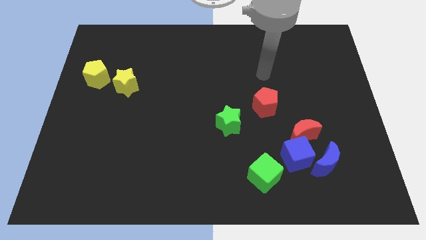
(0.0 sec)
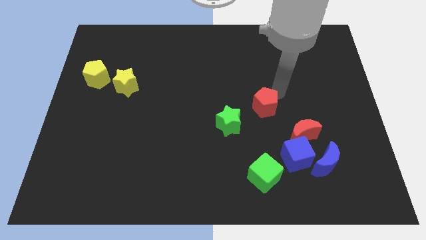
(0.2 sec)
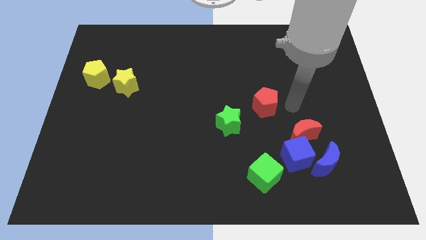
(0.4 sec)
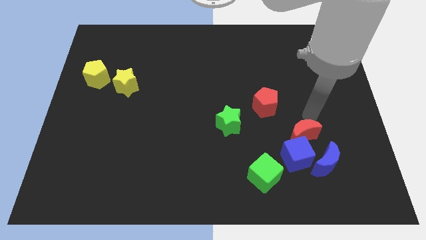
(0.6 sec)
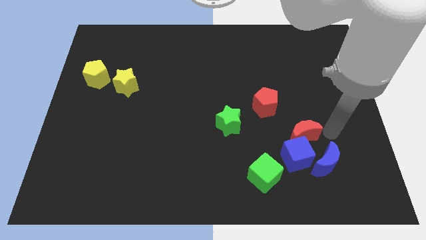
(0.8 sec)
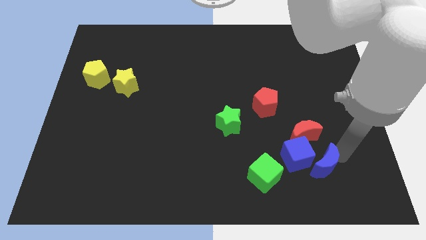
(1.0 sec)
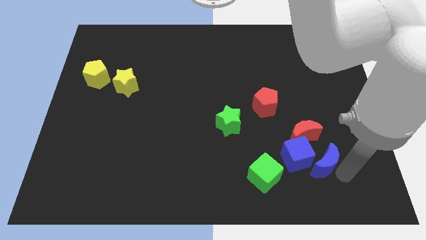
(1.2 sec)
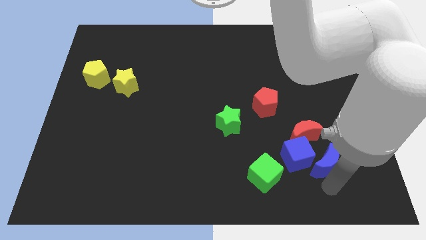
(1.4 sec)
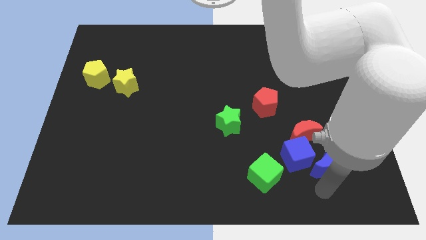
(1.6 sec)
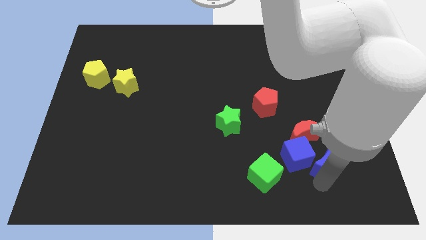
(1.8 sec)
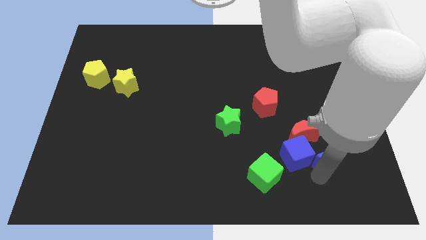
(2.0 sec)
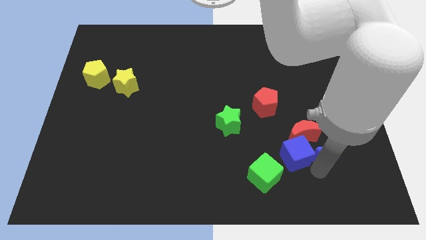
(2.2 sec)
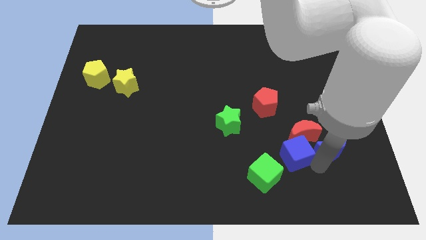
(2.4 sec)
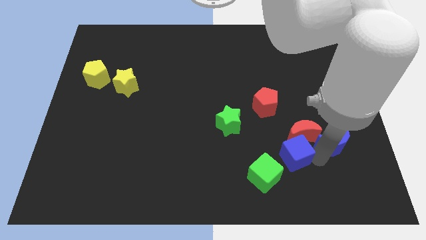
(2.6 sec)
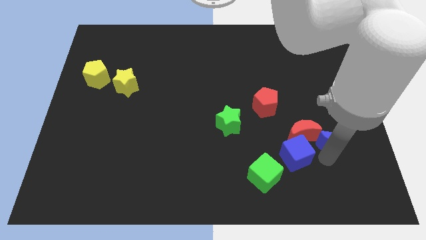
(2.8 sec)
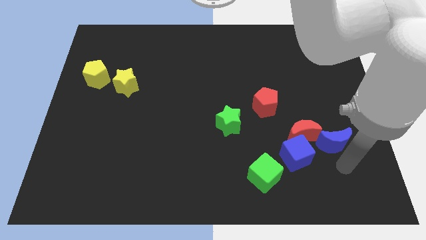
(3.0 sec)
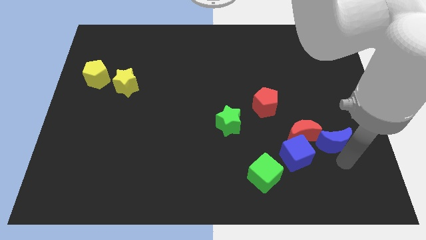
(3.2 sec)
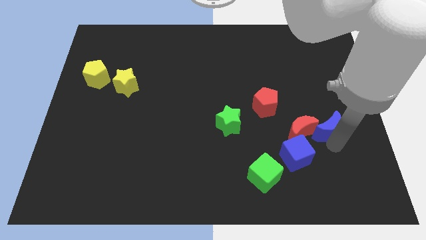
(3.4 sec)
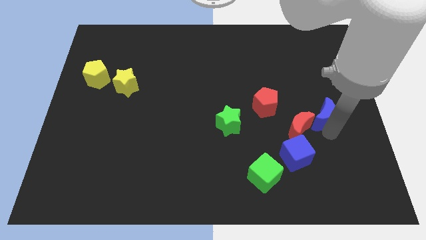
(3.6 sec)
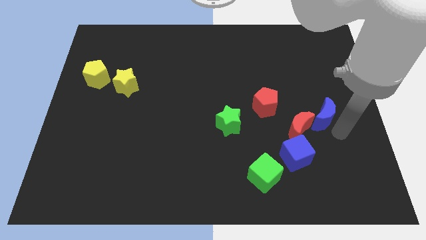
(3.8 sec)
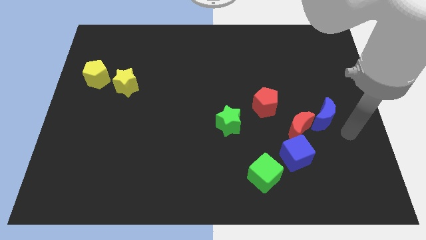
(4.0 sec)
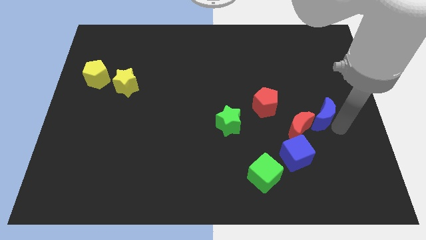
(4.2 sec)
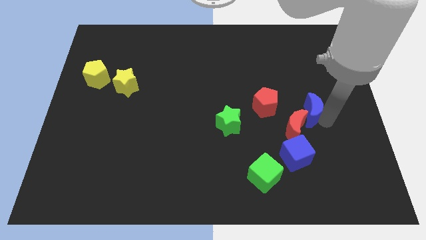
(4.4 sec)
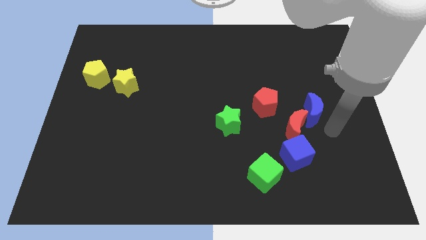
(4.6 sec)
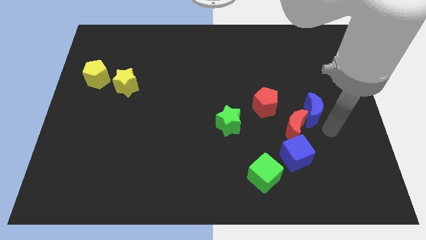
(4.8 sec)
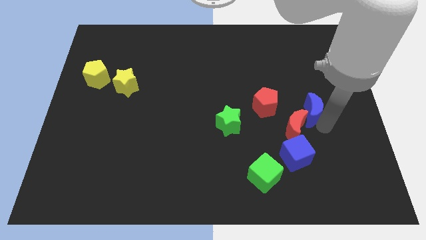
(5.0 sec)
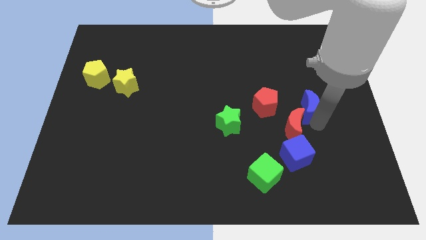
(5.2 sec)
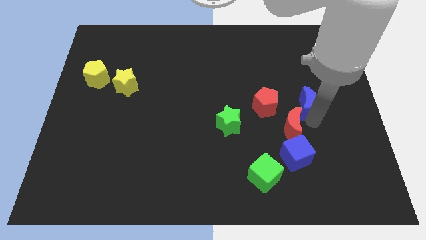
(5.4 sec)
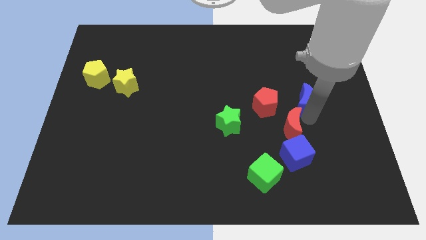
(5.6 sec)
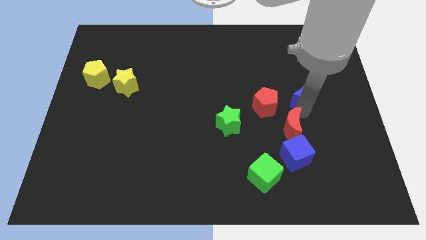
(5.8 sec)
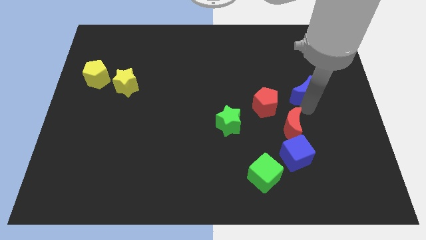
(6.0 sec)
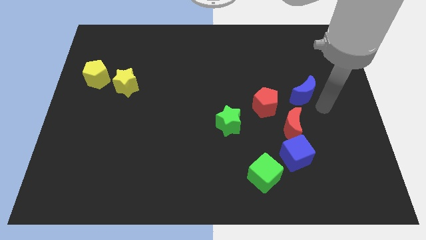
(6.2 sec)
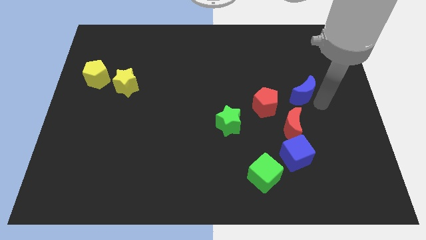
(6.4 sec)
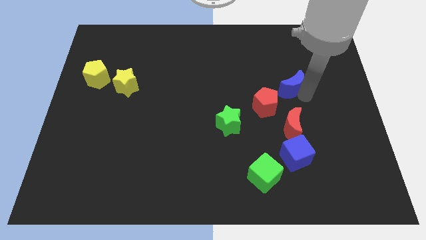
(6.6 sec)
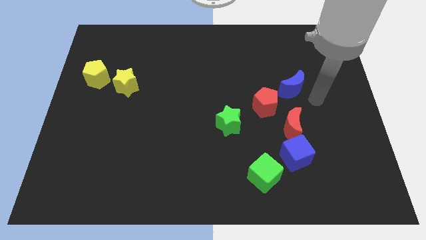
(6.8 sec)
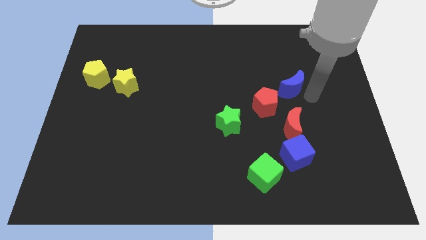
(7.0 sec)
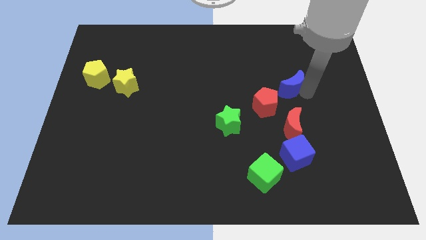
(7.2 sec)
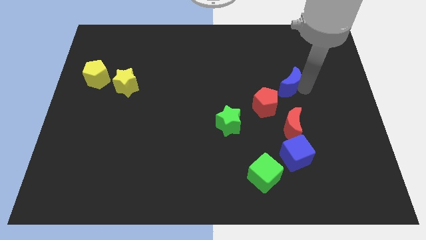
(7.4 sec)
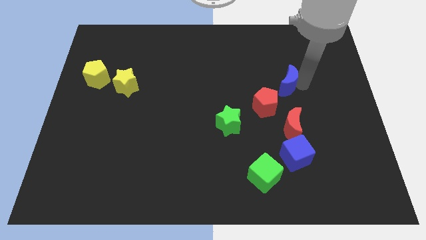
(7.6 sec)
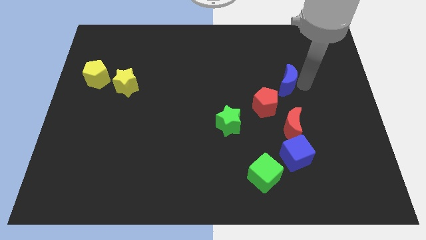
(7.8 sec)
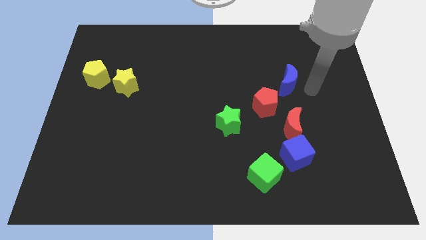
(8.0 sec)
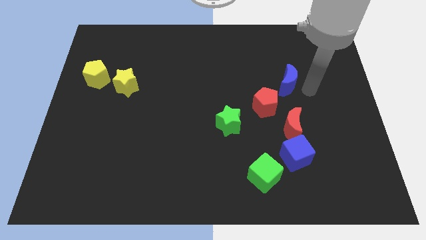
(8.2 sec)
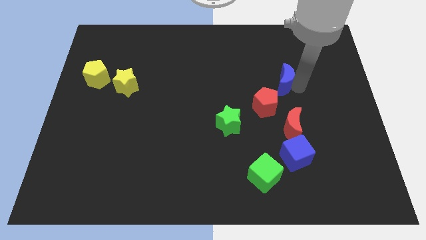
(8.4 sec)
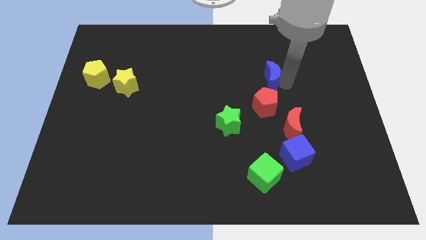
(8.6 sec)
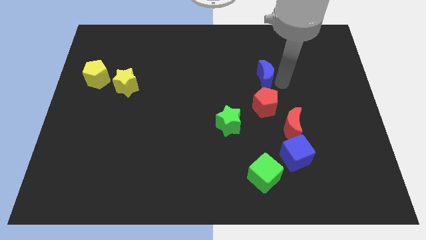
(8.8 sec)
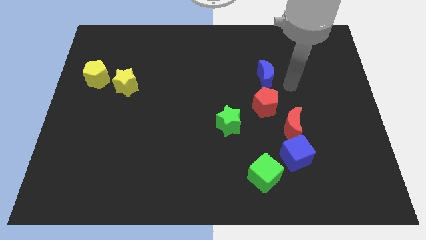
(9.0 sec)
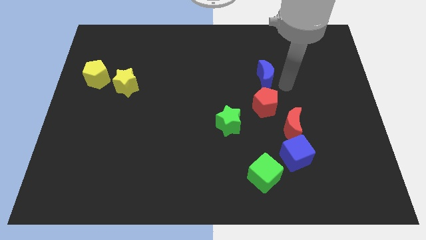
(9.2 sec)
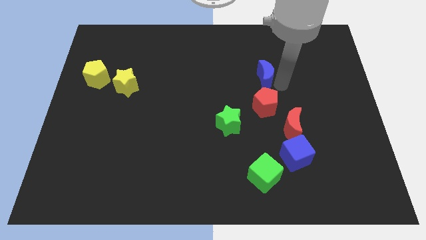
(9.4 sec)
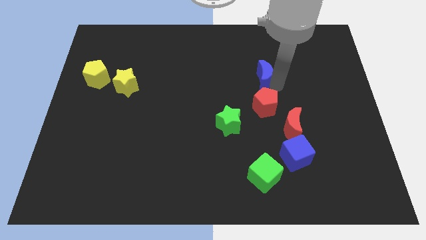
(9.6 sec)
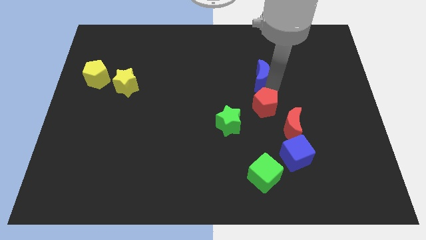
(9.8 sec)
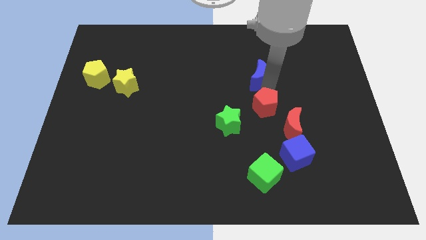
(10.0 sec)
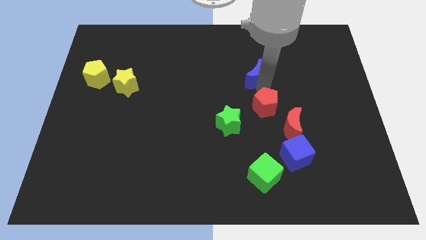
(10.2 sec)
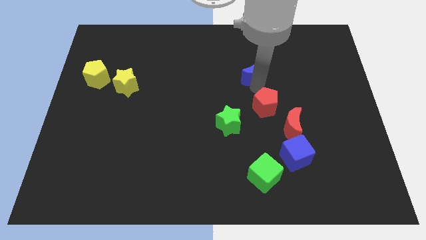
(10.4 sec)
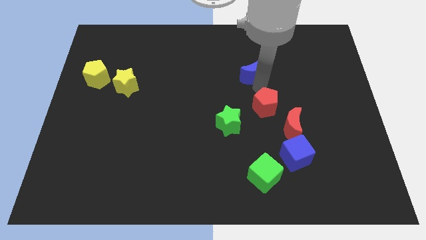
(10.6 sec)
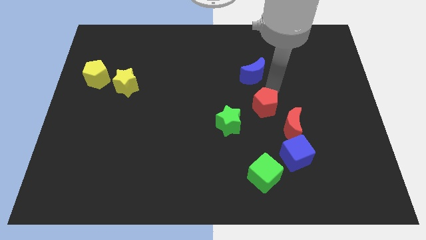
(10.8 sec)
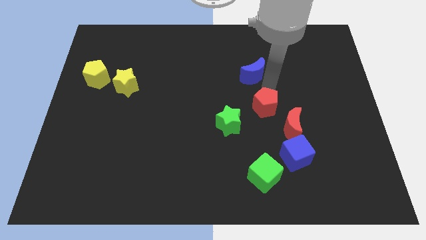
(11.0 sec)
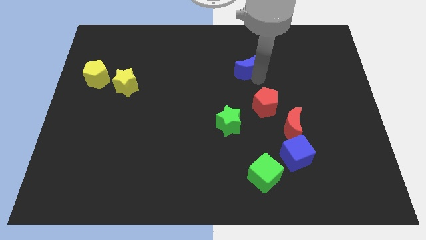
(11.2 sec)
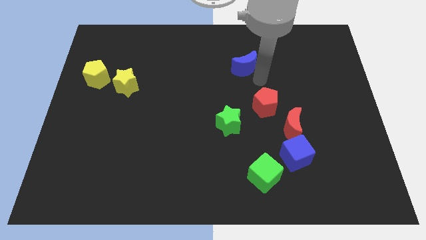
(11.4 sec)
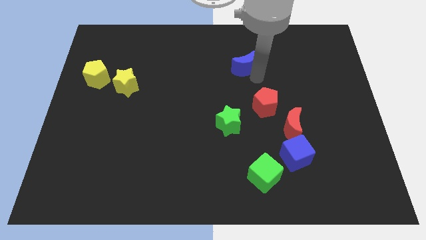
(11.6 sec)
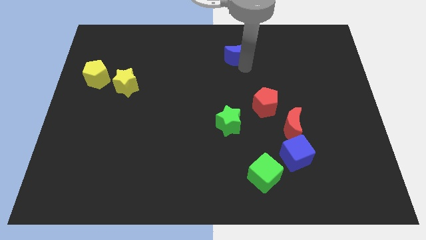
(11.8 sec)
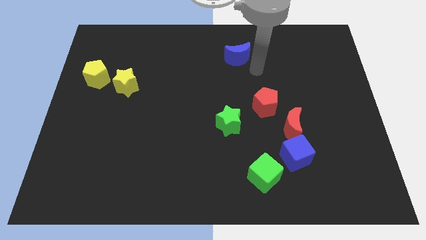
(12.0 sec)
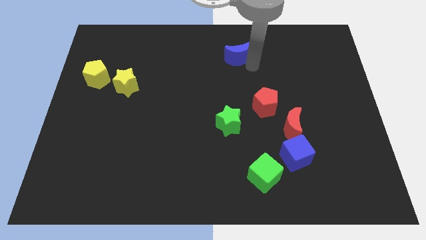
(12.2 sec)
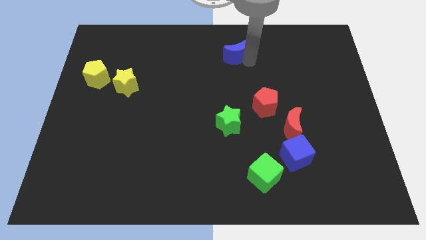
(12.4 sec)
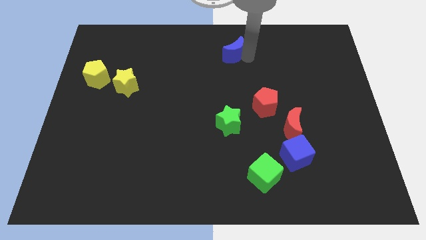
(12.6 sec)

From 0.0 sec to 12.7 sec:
slide the blue moon to the towards your base
